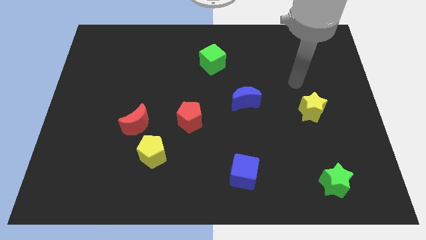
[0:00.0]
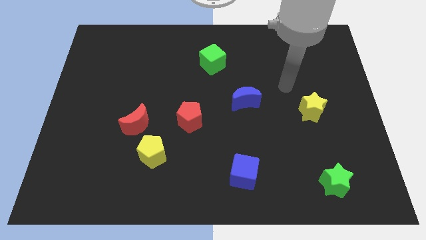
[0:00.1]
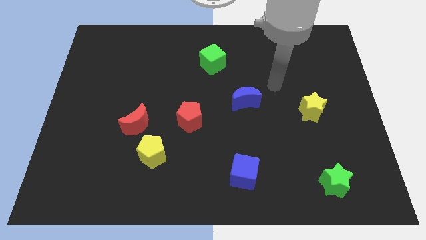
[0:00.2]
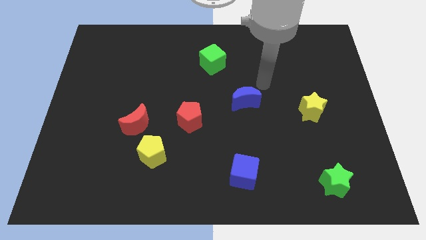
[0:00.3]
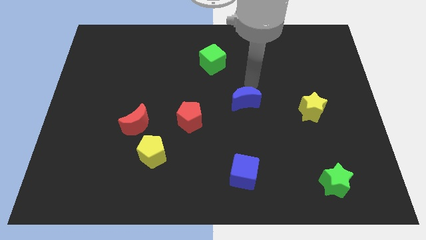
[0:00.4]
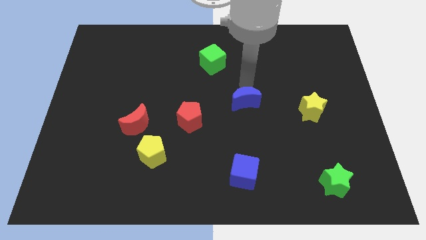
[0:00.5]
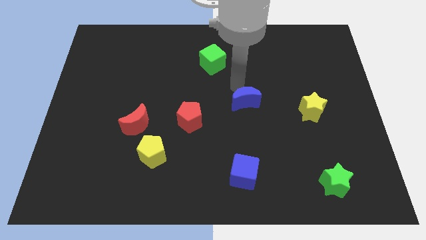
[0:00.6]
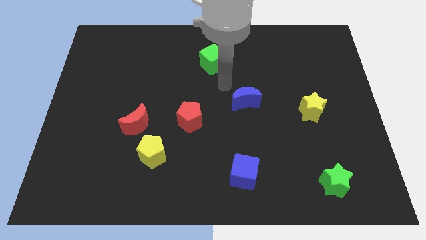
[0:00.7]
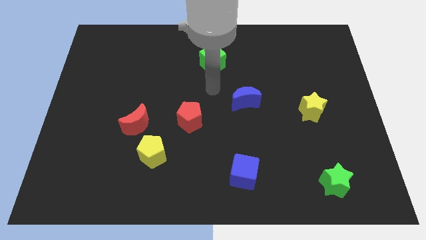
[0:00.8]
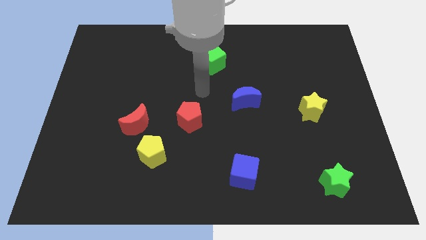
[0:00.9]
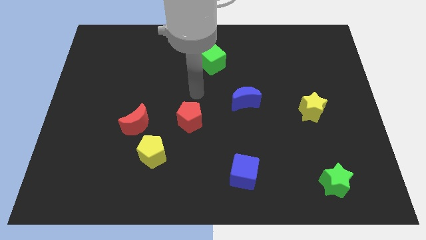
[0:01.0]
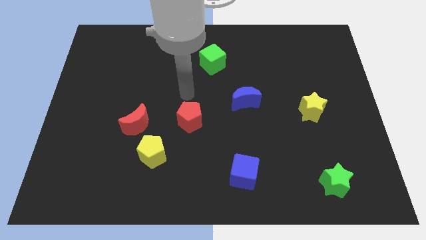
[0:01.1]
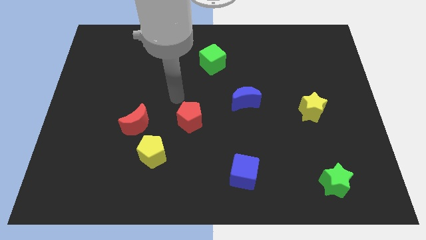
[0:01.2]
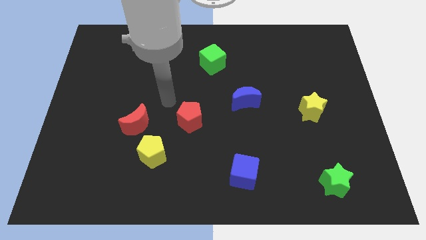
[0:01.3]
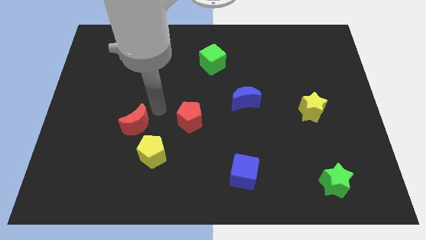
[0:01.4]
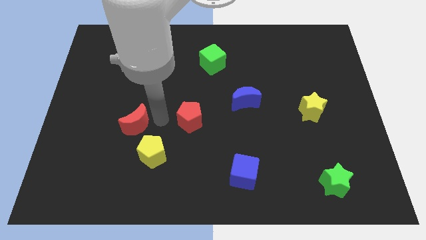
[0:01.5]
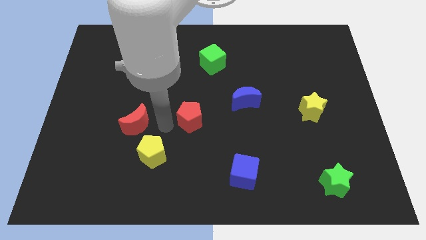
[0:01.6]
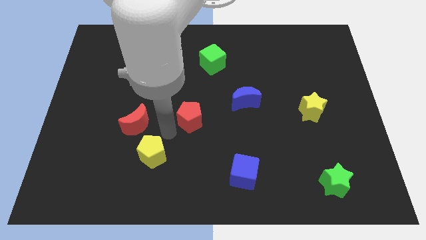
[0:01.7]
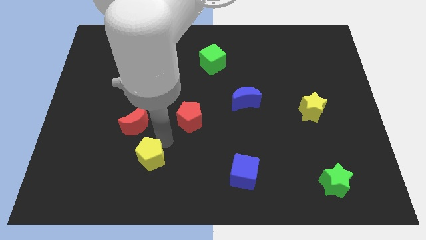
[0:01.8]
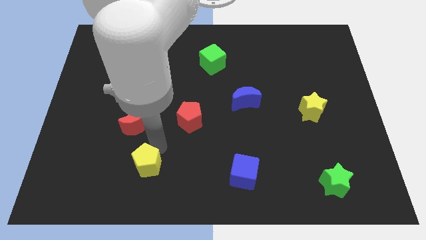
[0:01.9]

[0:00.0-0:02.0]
pull the red moon apart from the yellow pentagon

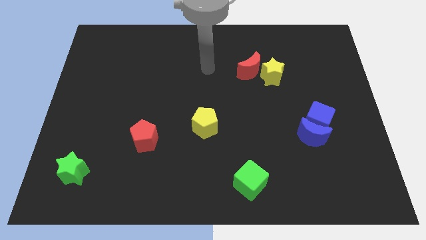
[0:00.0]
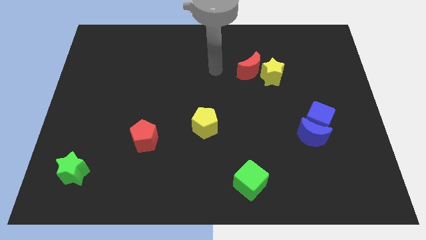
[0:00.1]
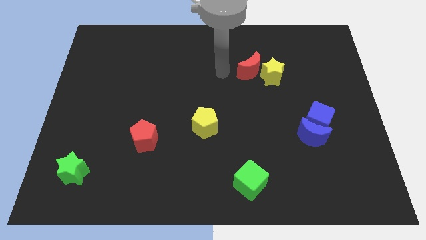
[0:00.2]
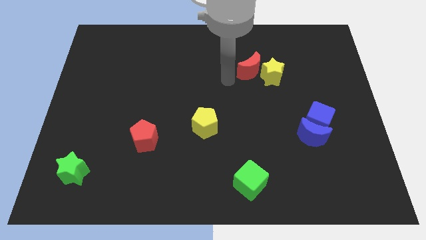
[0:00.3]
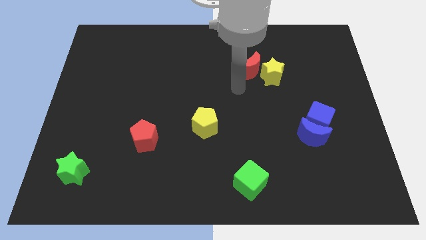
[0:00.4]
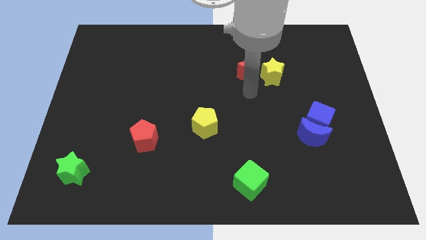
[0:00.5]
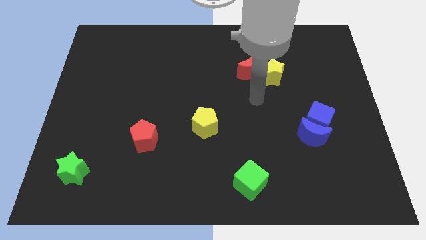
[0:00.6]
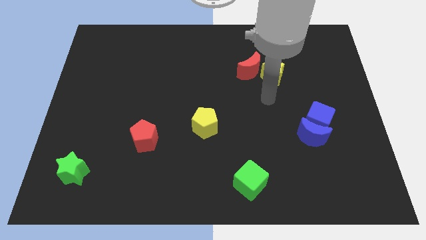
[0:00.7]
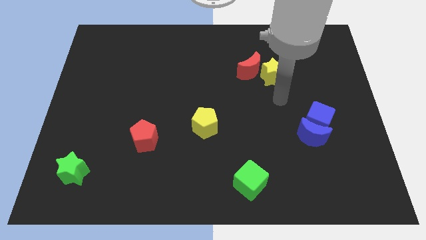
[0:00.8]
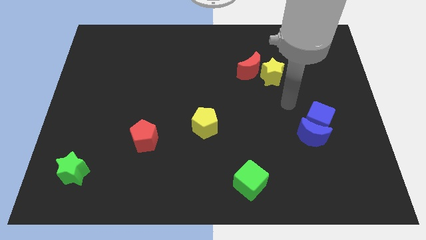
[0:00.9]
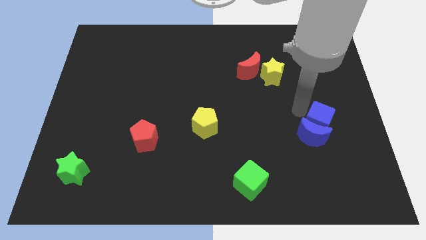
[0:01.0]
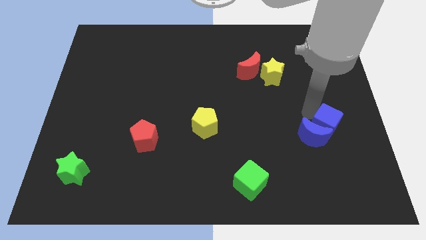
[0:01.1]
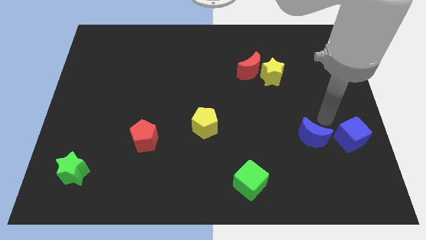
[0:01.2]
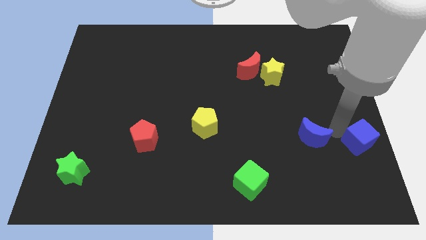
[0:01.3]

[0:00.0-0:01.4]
pull the blue moon apart from the blue cube

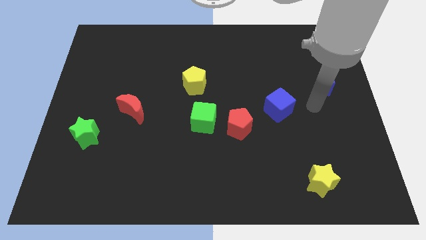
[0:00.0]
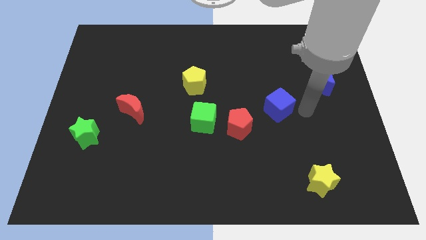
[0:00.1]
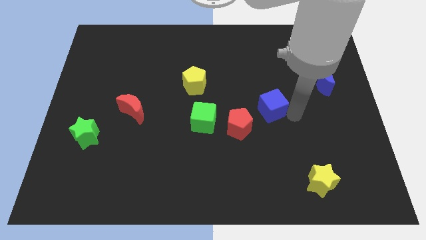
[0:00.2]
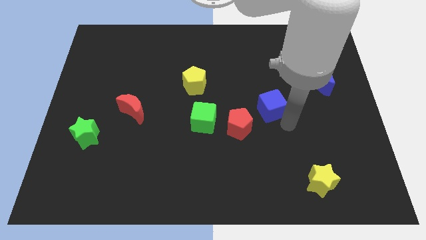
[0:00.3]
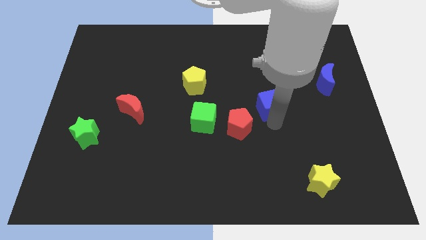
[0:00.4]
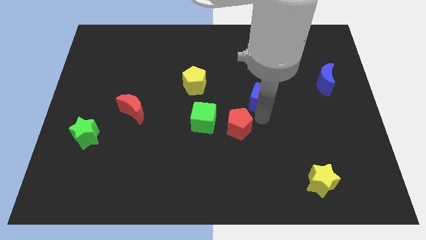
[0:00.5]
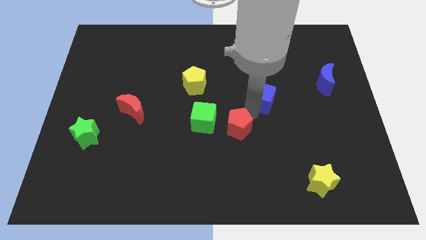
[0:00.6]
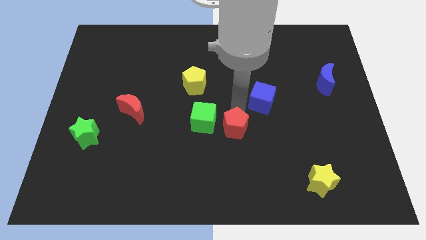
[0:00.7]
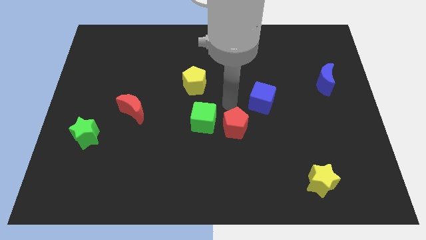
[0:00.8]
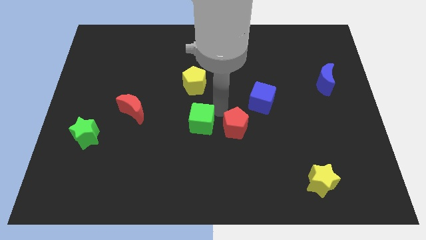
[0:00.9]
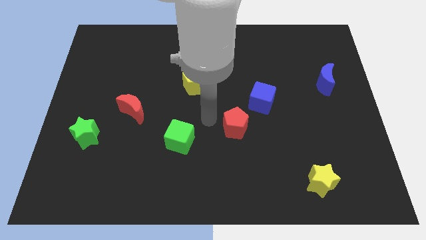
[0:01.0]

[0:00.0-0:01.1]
separate the red pentagon from the green cube

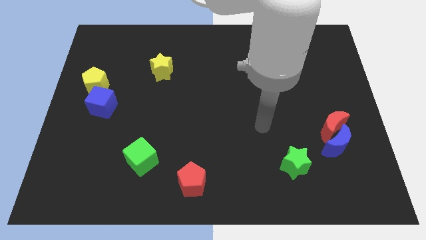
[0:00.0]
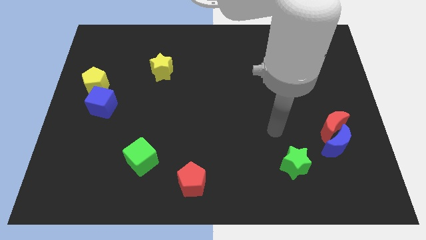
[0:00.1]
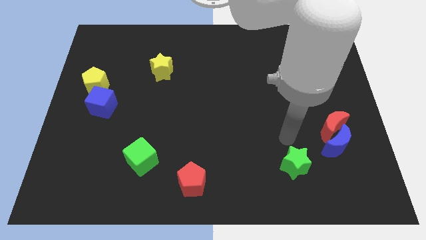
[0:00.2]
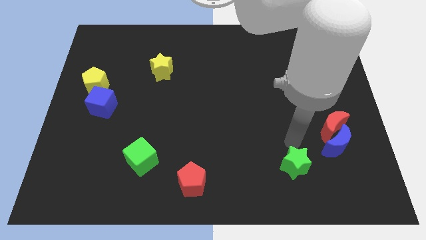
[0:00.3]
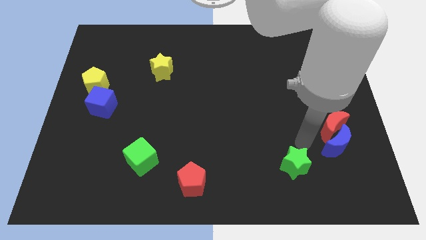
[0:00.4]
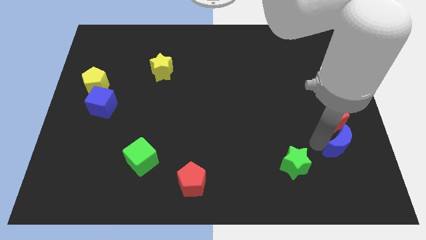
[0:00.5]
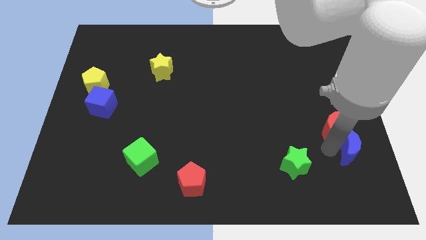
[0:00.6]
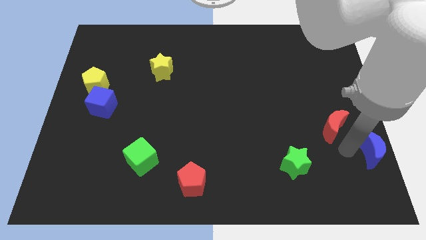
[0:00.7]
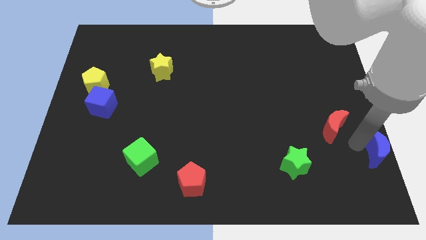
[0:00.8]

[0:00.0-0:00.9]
move the red moon away from the blue moon

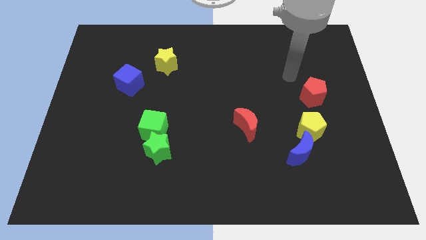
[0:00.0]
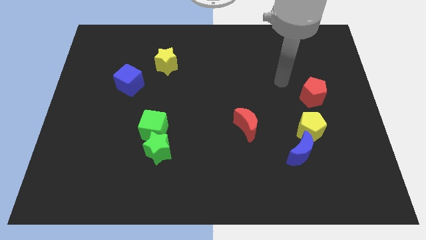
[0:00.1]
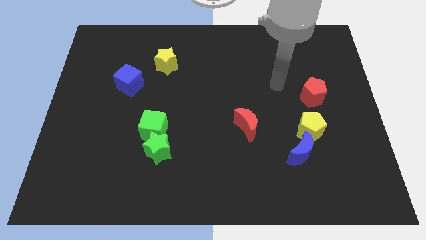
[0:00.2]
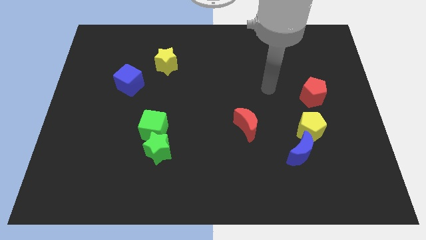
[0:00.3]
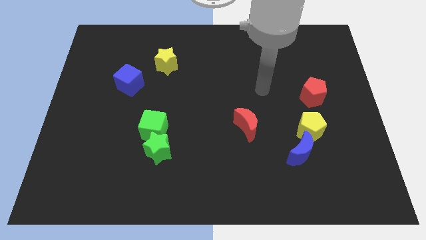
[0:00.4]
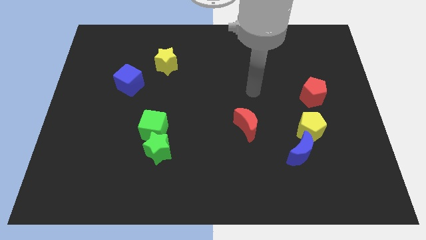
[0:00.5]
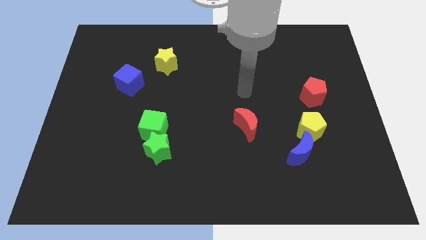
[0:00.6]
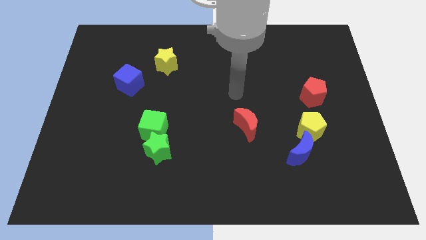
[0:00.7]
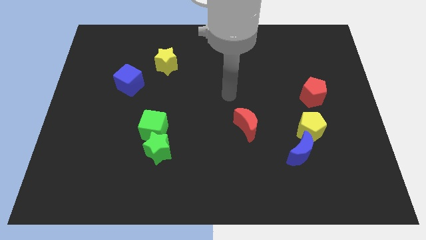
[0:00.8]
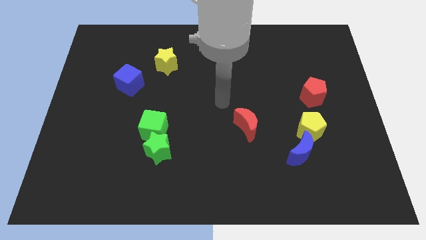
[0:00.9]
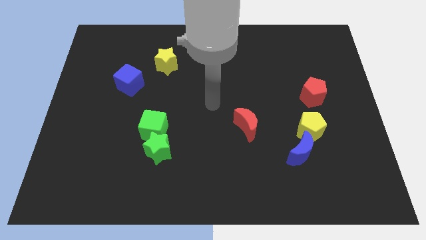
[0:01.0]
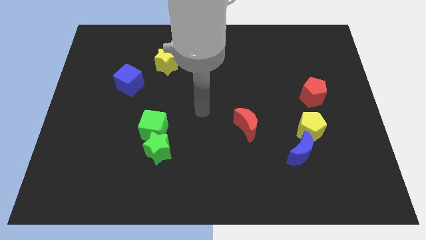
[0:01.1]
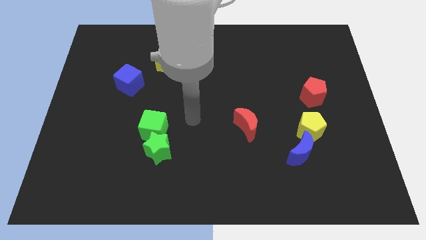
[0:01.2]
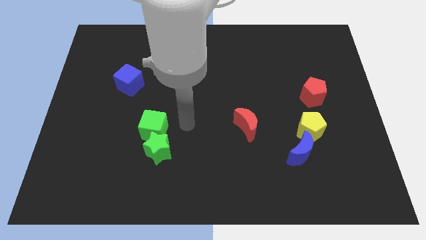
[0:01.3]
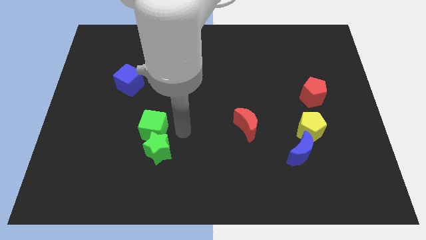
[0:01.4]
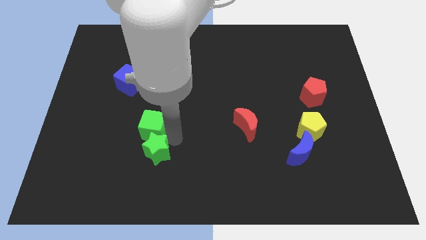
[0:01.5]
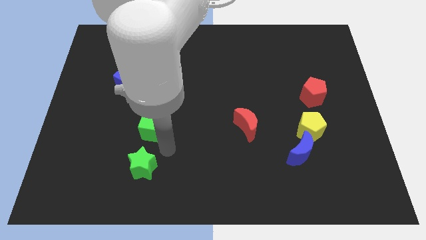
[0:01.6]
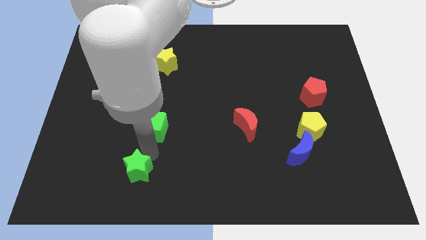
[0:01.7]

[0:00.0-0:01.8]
separate the green cube from the green star

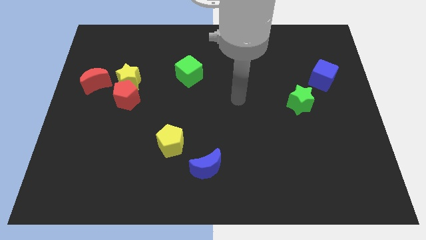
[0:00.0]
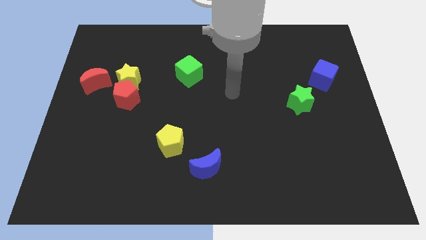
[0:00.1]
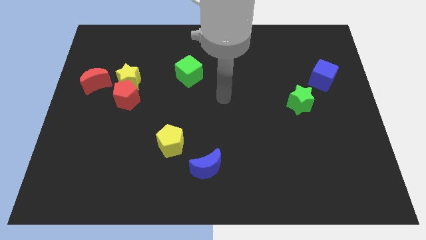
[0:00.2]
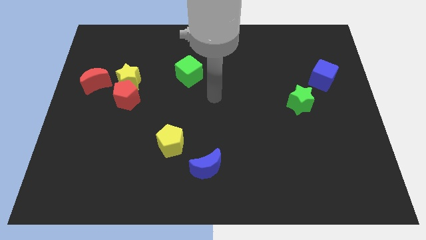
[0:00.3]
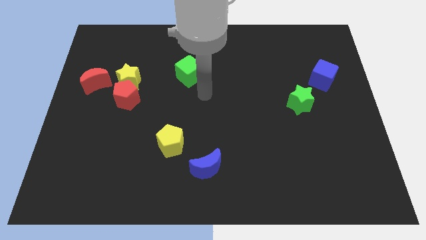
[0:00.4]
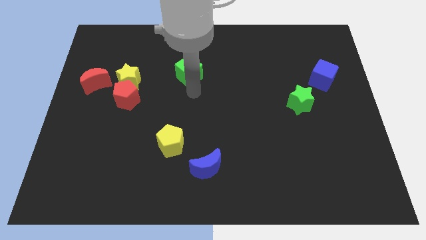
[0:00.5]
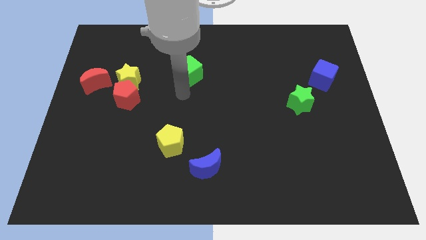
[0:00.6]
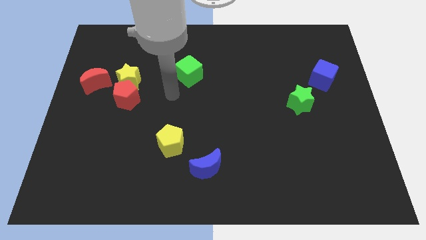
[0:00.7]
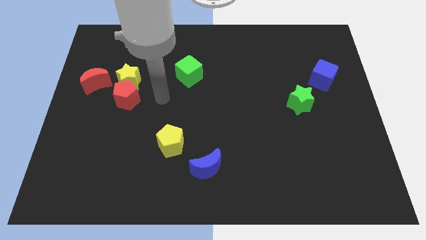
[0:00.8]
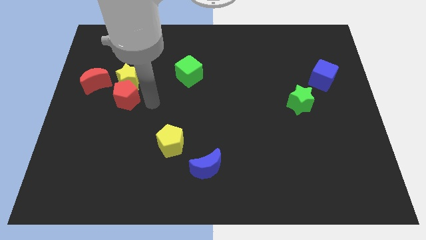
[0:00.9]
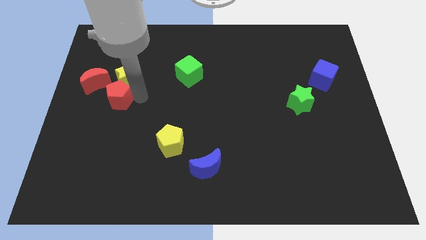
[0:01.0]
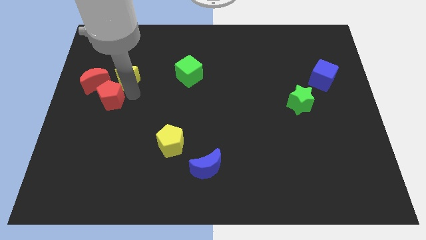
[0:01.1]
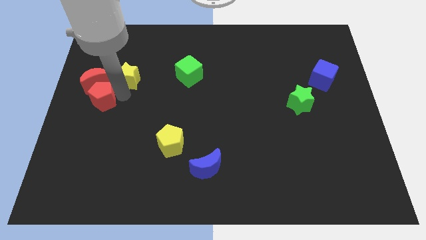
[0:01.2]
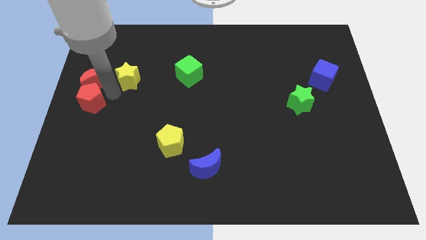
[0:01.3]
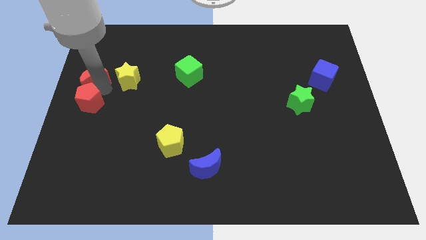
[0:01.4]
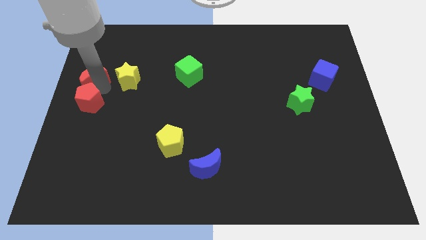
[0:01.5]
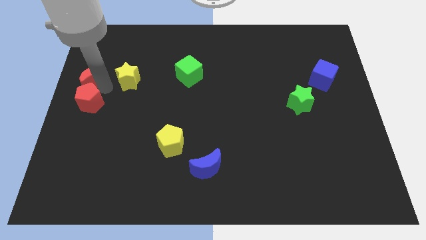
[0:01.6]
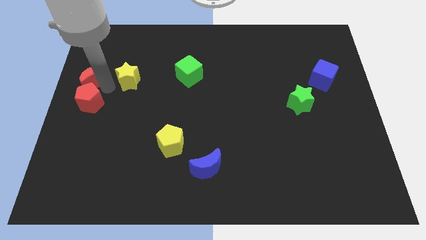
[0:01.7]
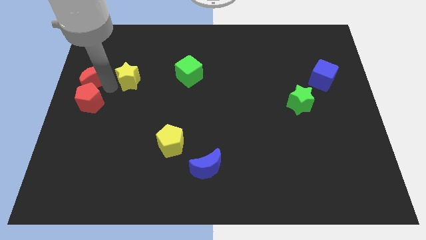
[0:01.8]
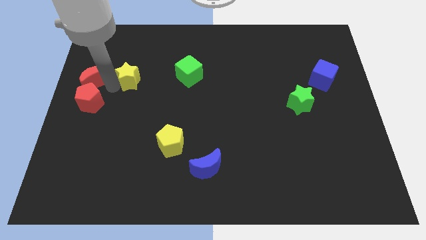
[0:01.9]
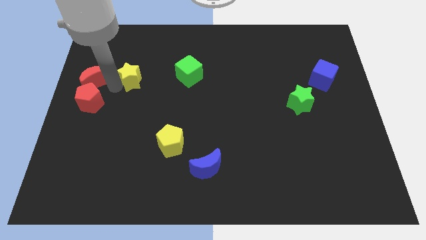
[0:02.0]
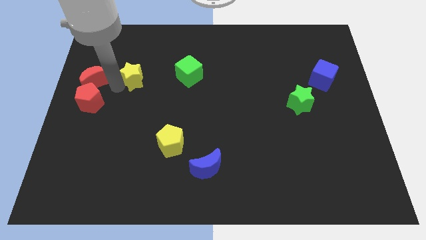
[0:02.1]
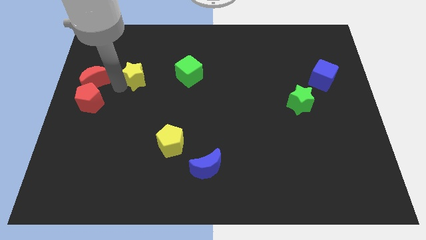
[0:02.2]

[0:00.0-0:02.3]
move the yellow star away from the red pentagon and red moon
